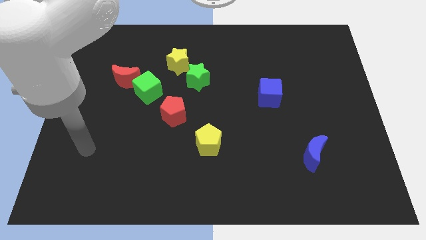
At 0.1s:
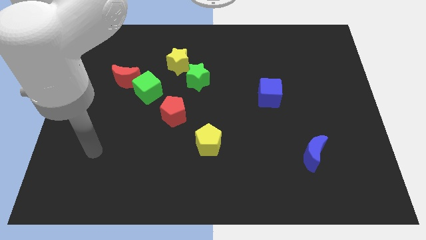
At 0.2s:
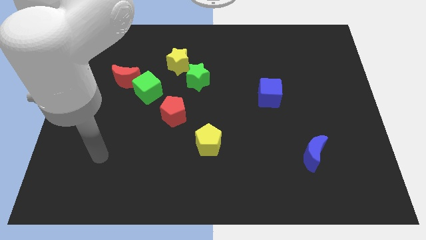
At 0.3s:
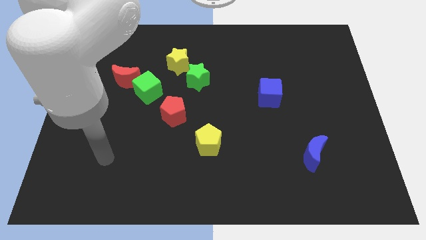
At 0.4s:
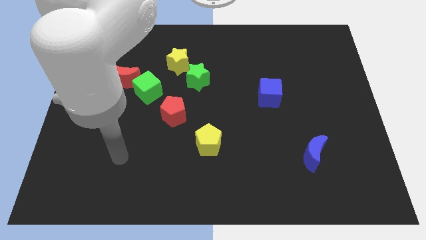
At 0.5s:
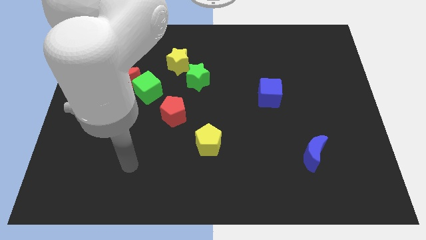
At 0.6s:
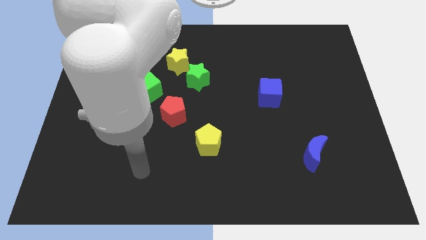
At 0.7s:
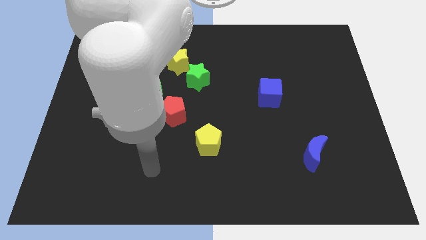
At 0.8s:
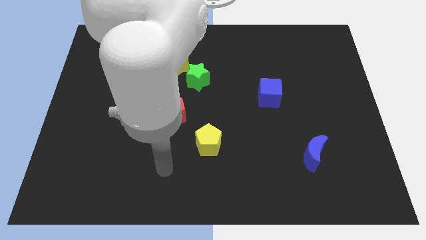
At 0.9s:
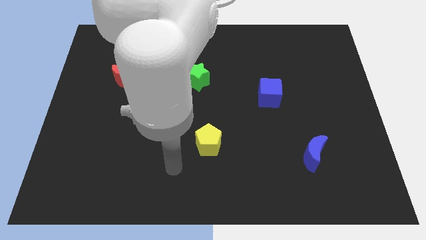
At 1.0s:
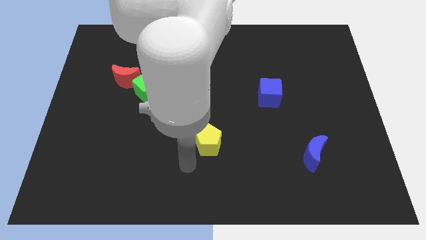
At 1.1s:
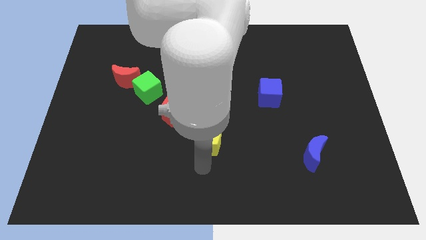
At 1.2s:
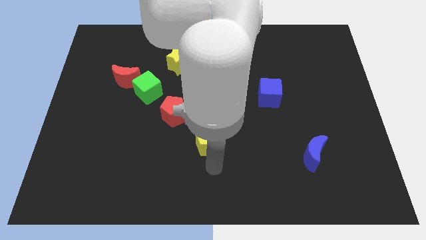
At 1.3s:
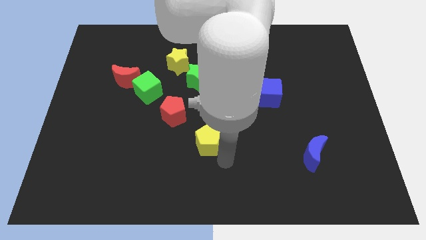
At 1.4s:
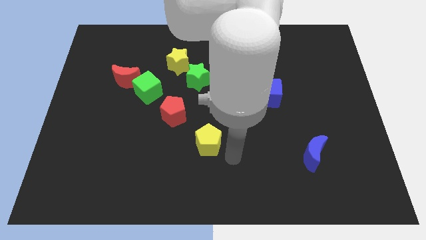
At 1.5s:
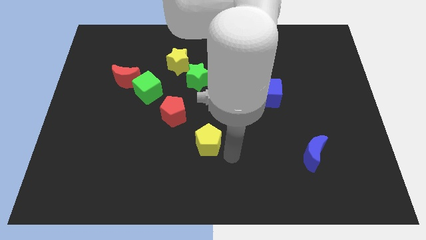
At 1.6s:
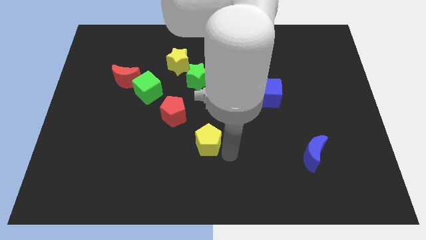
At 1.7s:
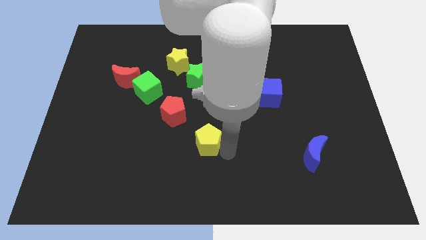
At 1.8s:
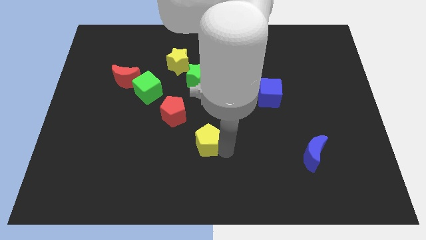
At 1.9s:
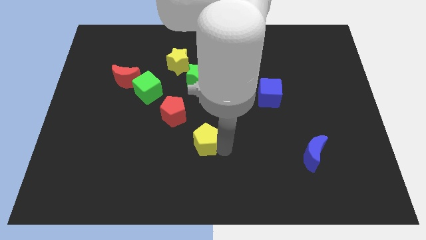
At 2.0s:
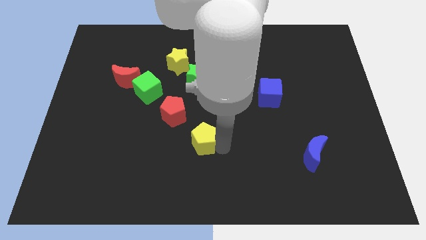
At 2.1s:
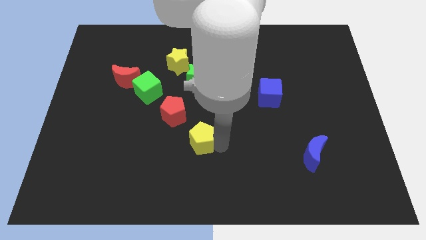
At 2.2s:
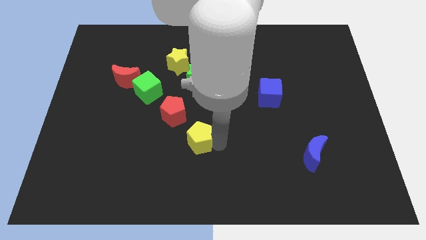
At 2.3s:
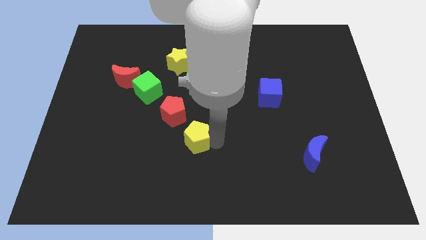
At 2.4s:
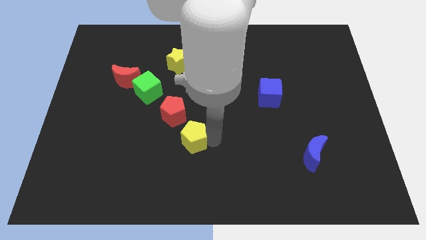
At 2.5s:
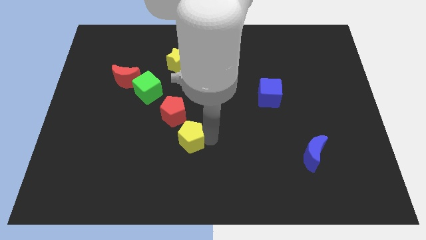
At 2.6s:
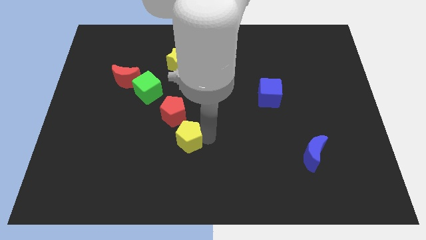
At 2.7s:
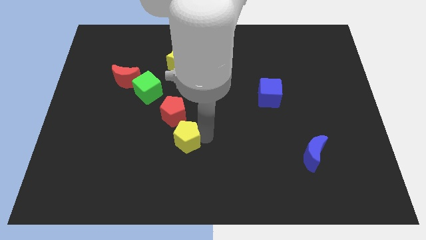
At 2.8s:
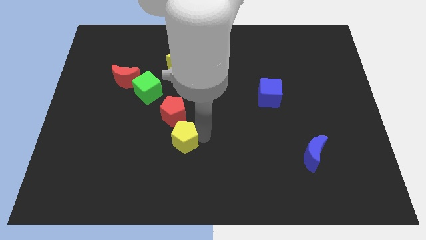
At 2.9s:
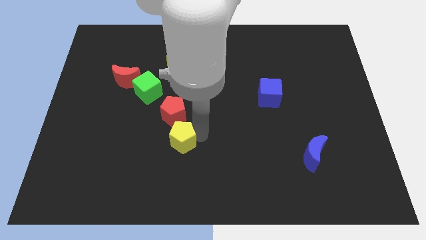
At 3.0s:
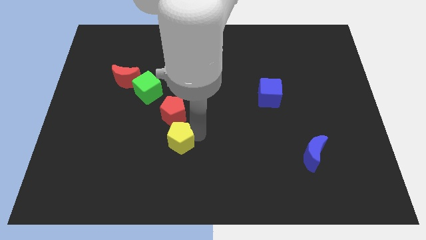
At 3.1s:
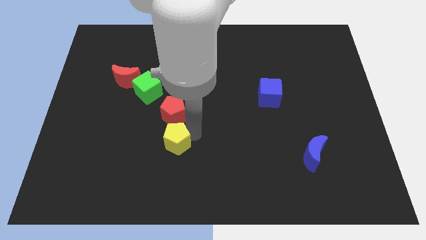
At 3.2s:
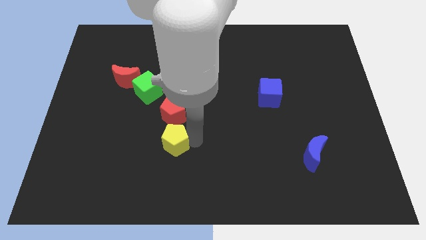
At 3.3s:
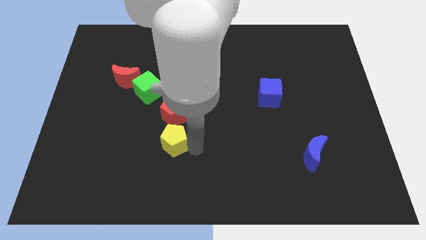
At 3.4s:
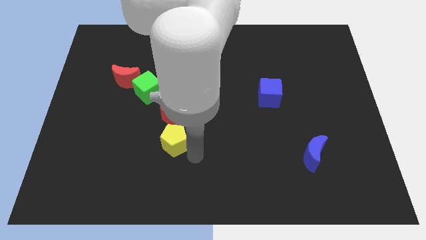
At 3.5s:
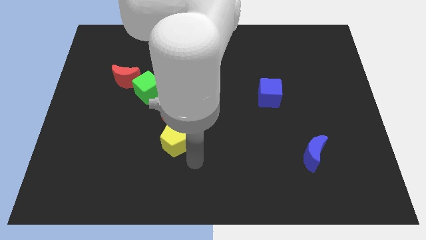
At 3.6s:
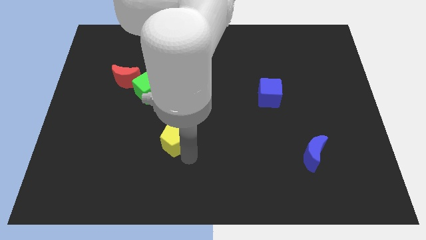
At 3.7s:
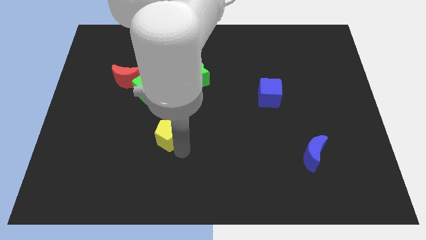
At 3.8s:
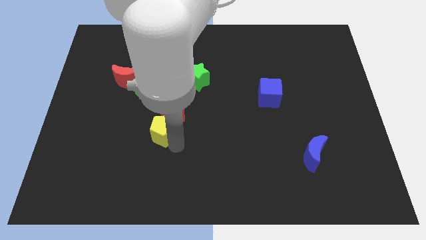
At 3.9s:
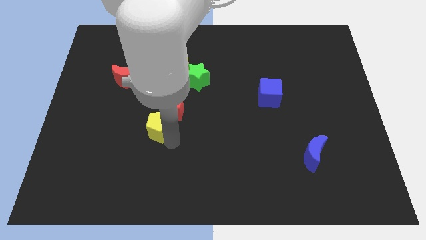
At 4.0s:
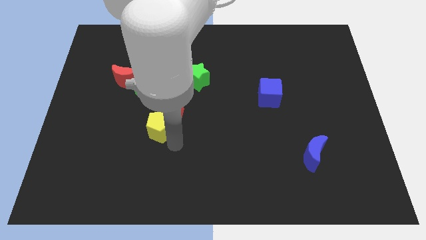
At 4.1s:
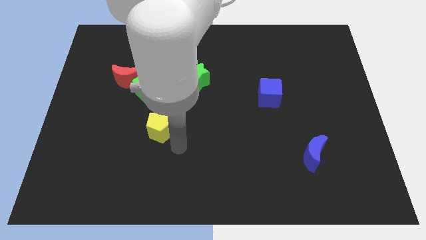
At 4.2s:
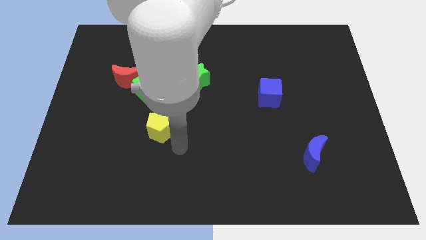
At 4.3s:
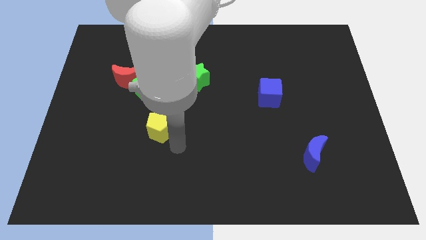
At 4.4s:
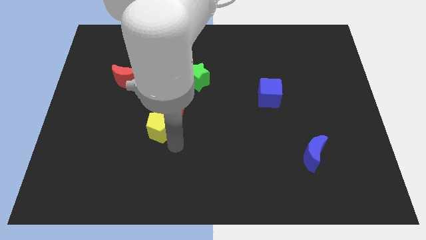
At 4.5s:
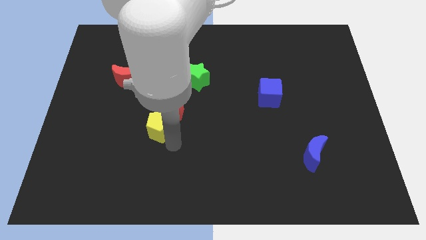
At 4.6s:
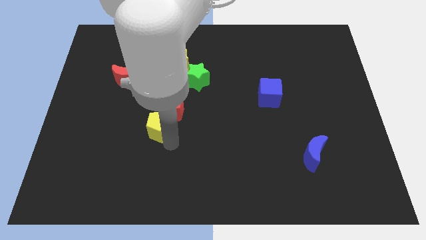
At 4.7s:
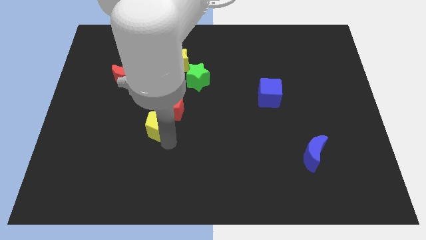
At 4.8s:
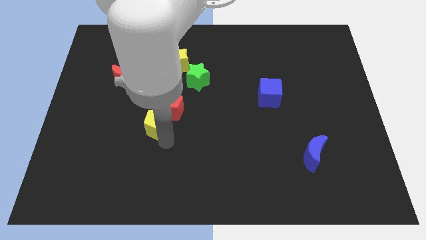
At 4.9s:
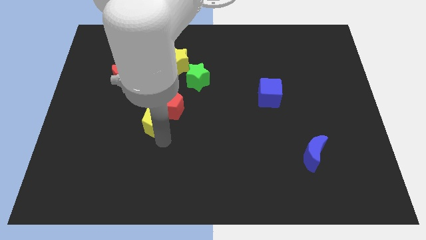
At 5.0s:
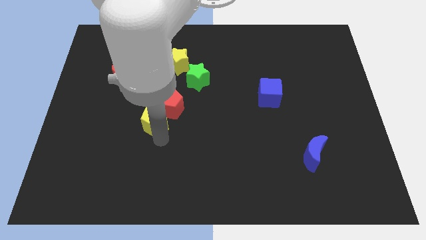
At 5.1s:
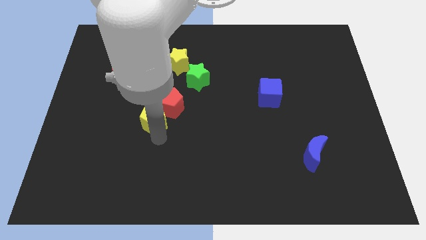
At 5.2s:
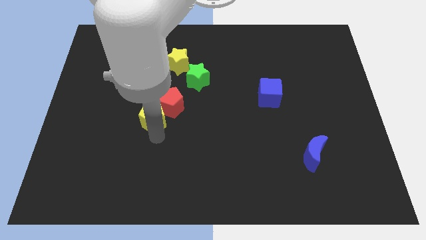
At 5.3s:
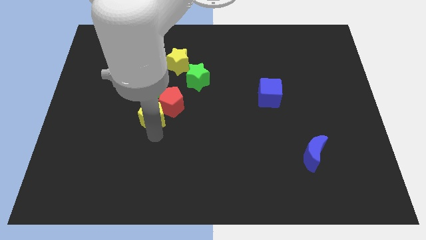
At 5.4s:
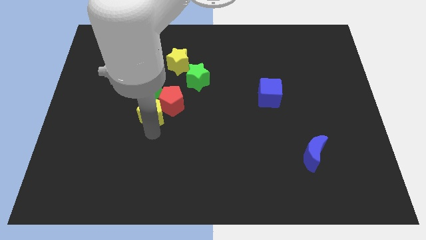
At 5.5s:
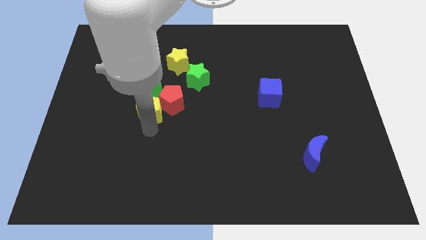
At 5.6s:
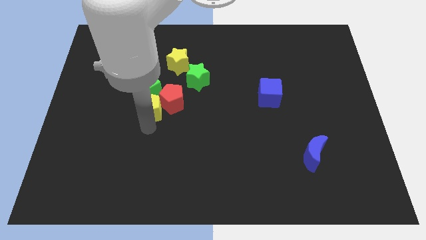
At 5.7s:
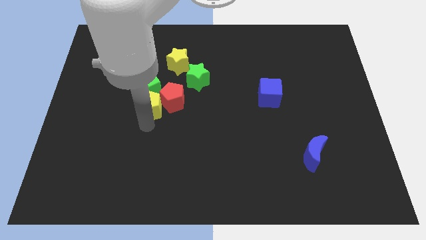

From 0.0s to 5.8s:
move the yellow pentagon towards the green cube

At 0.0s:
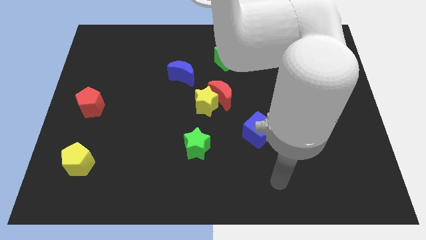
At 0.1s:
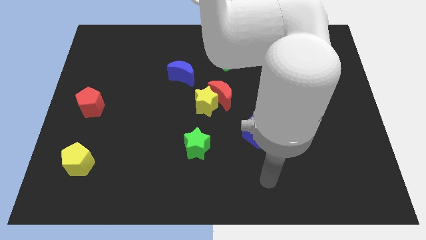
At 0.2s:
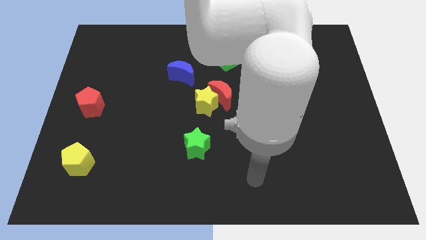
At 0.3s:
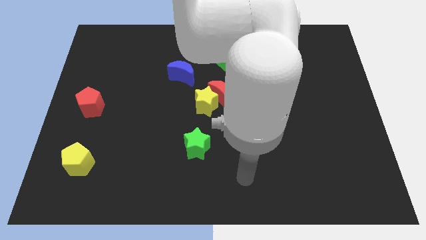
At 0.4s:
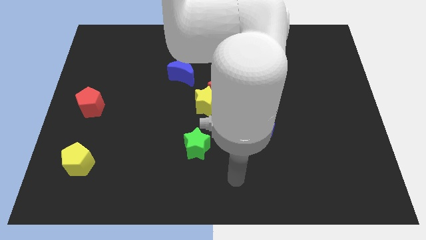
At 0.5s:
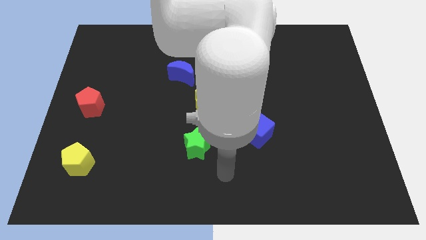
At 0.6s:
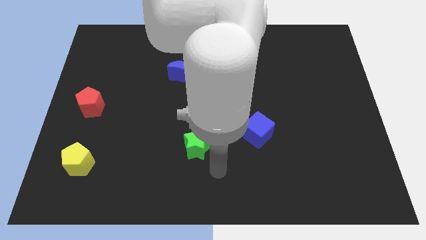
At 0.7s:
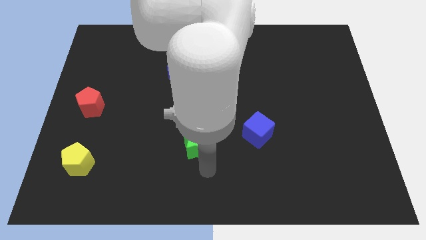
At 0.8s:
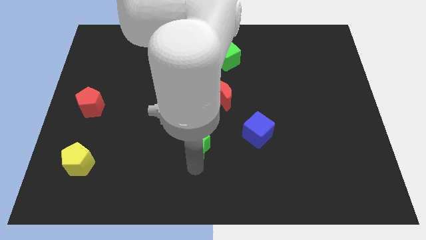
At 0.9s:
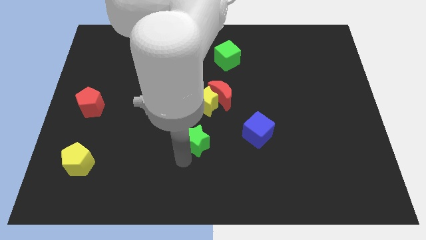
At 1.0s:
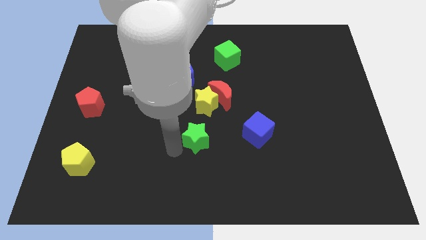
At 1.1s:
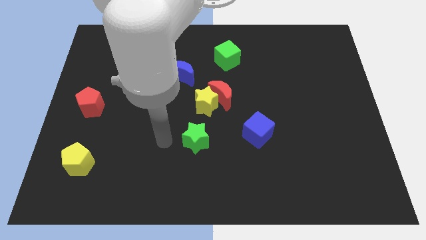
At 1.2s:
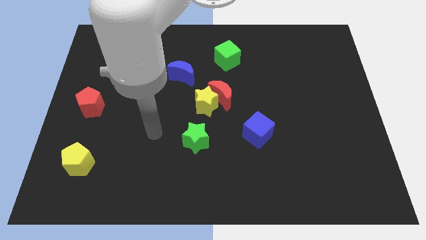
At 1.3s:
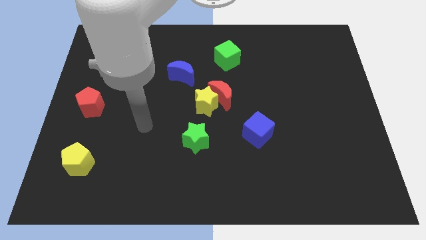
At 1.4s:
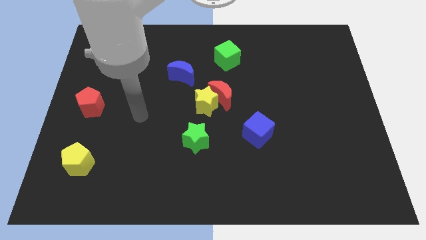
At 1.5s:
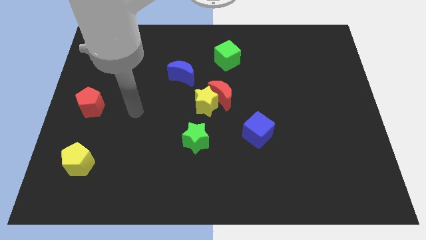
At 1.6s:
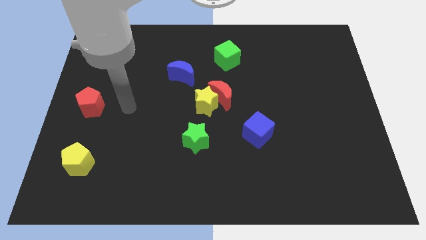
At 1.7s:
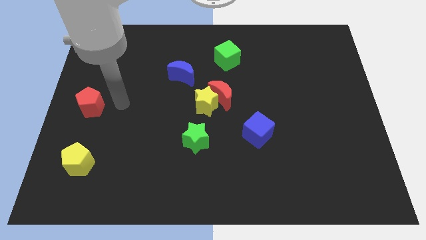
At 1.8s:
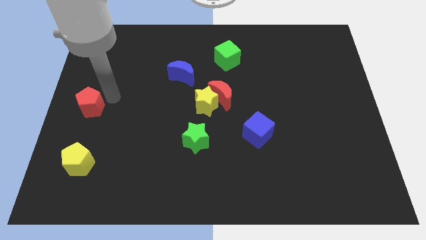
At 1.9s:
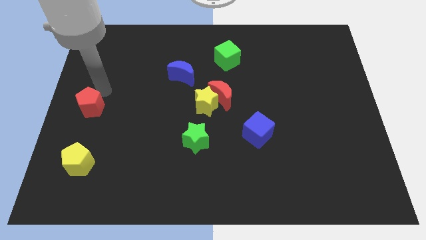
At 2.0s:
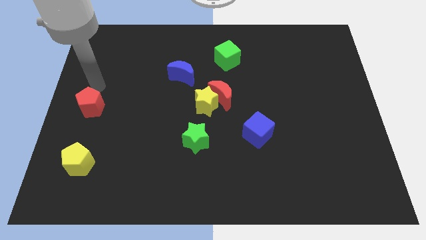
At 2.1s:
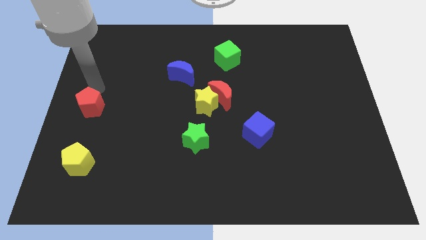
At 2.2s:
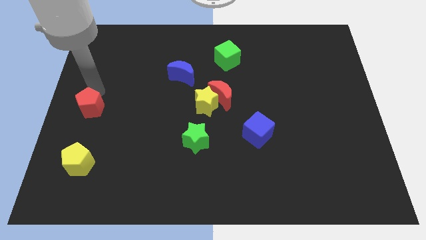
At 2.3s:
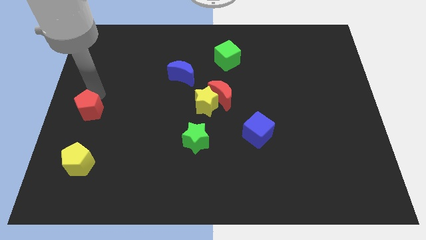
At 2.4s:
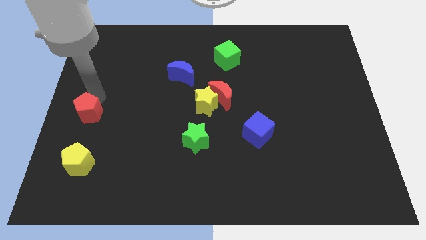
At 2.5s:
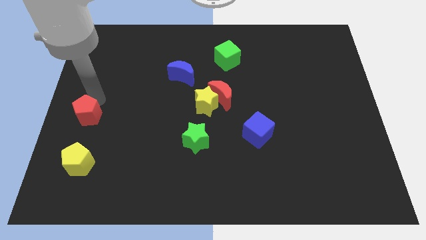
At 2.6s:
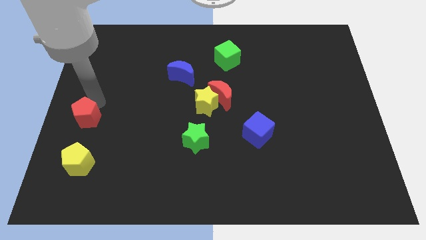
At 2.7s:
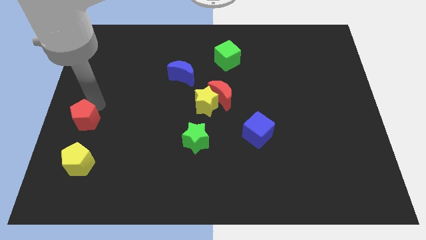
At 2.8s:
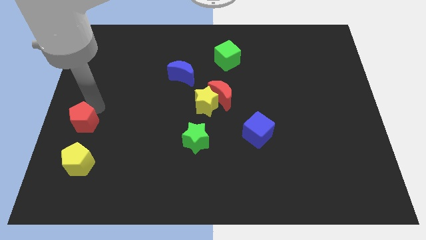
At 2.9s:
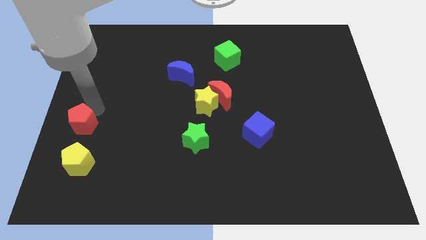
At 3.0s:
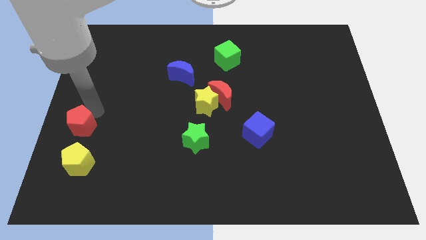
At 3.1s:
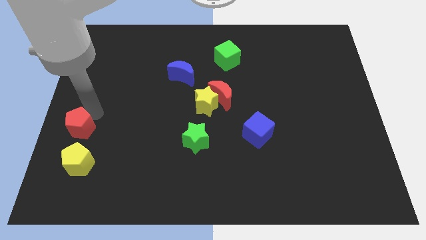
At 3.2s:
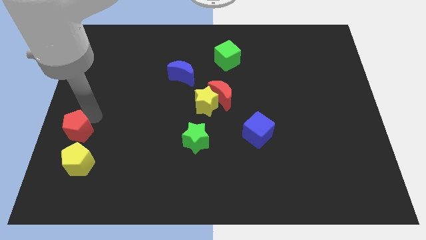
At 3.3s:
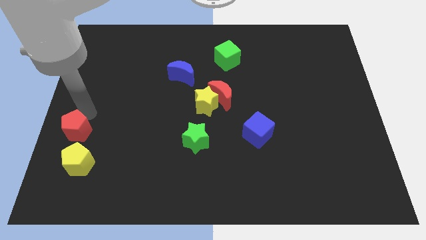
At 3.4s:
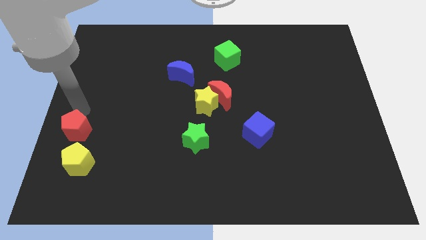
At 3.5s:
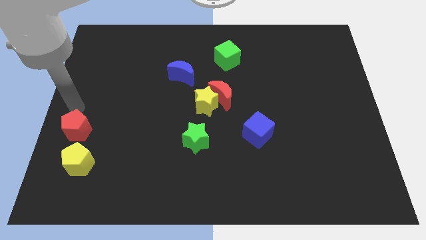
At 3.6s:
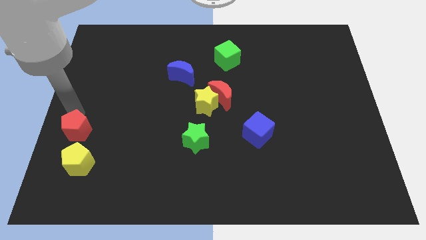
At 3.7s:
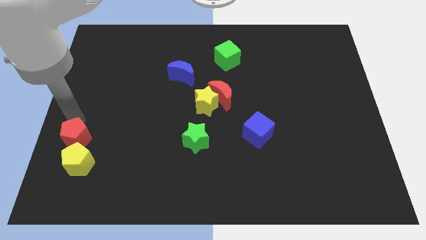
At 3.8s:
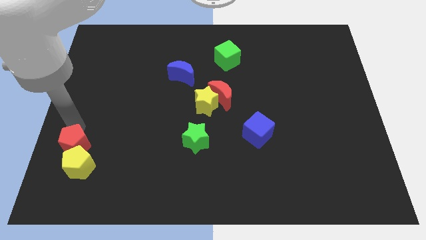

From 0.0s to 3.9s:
push the red pentagon close to the yellow pentagon
